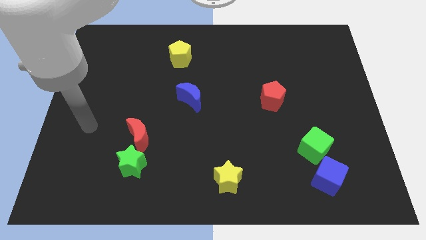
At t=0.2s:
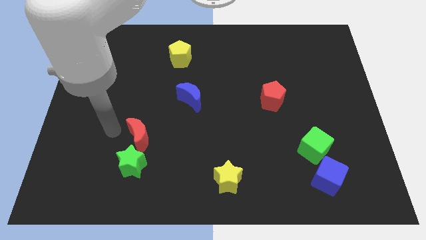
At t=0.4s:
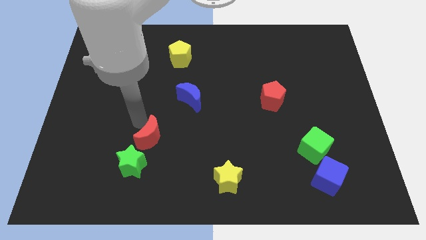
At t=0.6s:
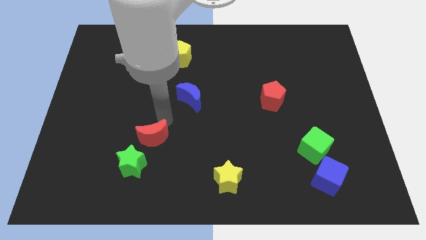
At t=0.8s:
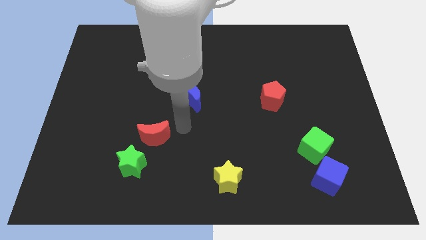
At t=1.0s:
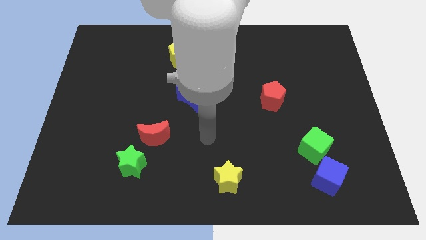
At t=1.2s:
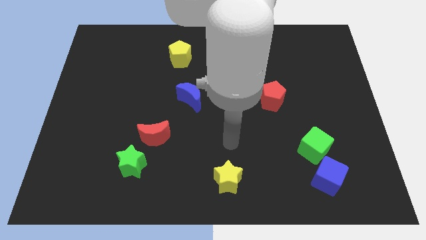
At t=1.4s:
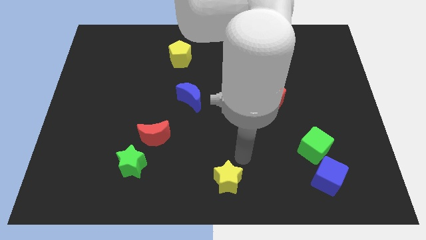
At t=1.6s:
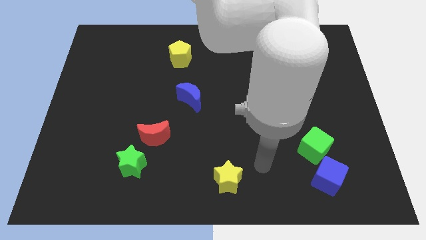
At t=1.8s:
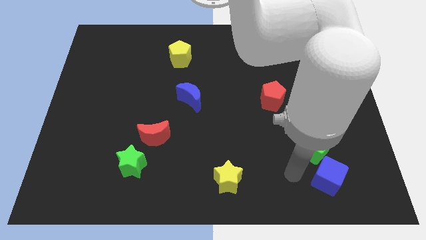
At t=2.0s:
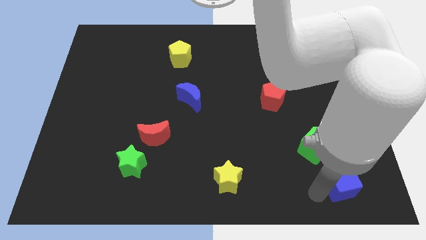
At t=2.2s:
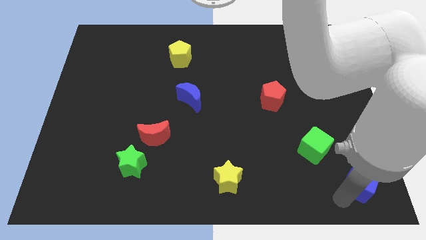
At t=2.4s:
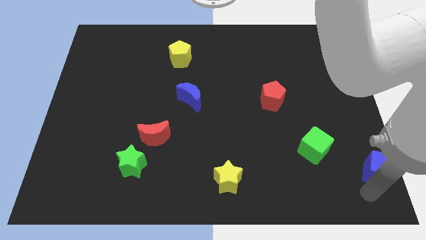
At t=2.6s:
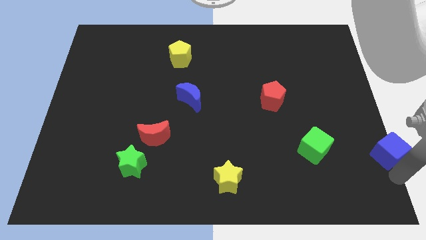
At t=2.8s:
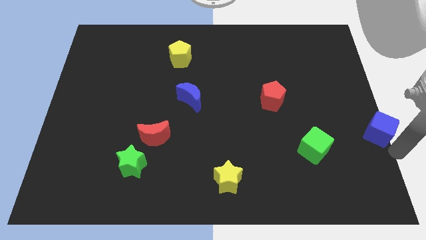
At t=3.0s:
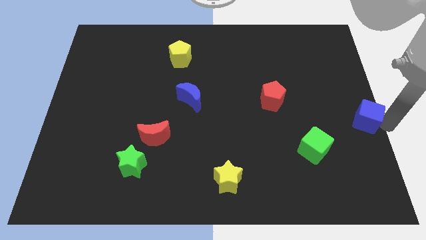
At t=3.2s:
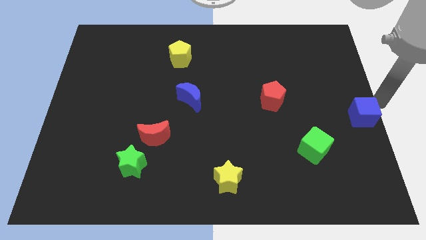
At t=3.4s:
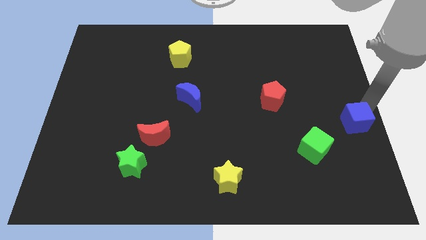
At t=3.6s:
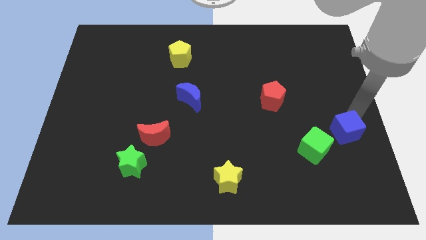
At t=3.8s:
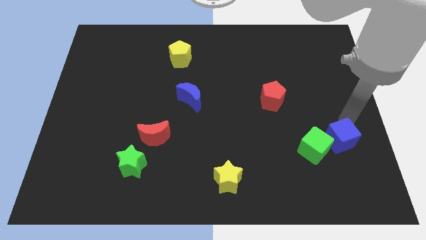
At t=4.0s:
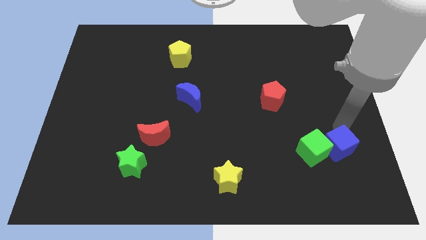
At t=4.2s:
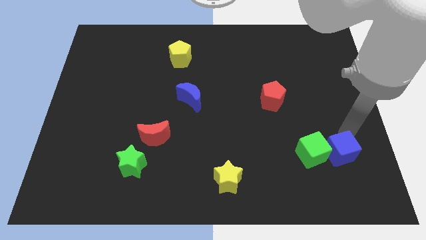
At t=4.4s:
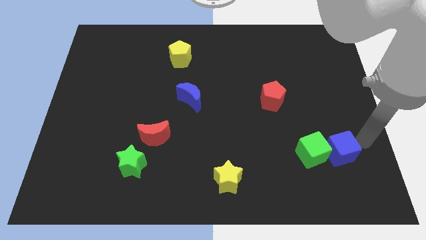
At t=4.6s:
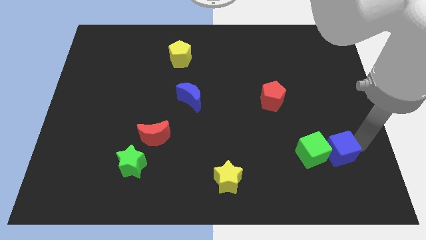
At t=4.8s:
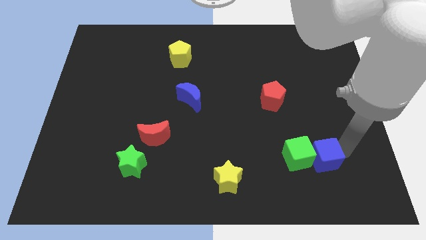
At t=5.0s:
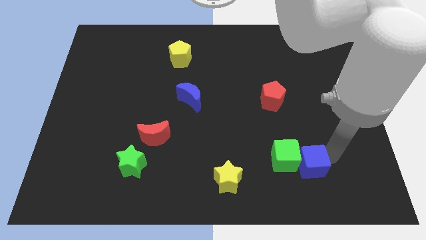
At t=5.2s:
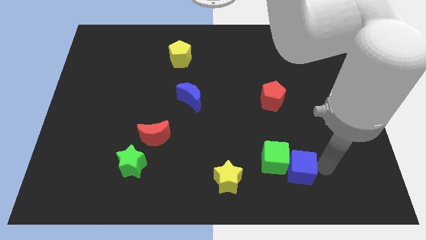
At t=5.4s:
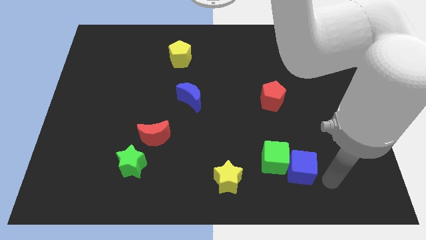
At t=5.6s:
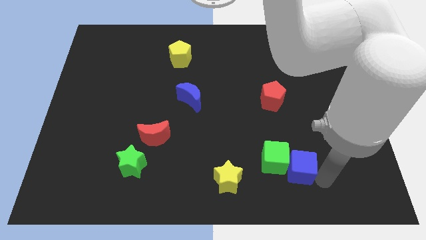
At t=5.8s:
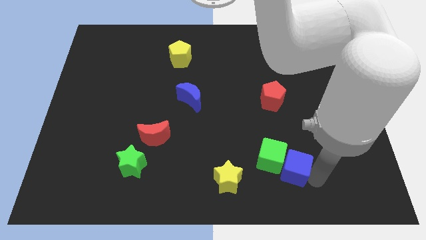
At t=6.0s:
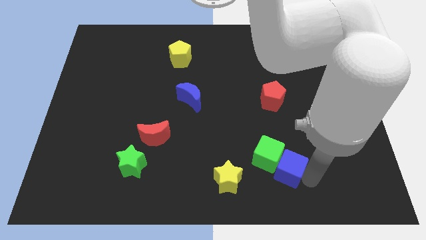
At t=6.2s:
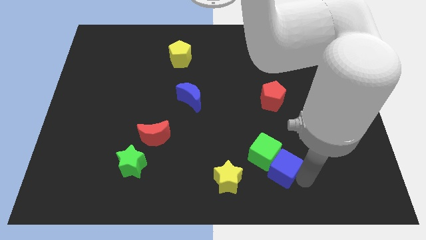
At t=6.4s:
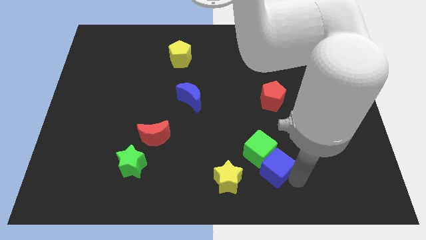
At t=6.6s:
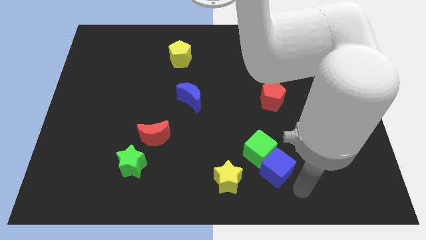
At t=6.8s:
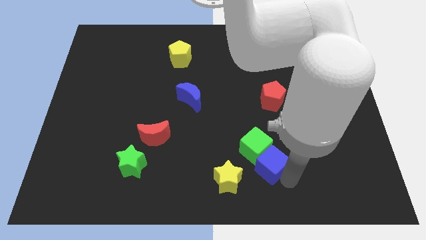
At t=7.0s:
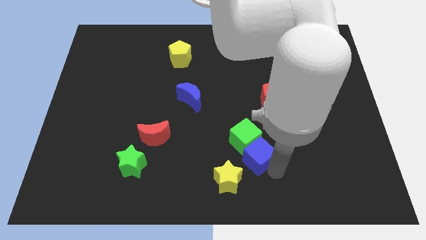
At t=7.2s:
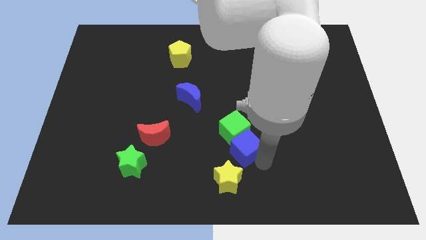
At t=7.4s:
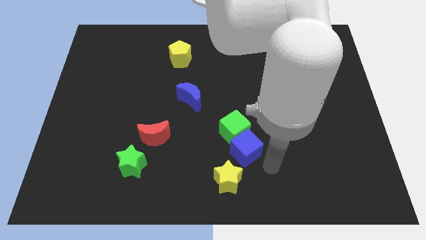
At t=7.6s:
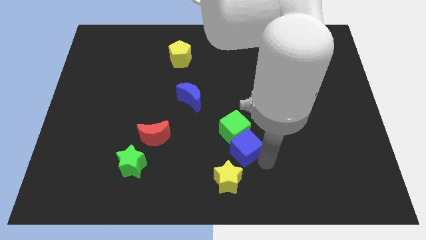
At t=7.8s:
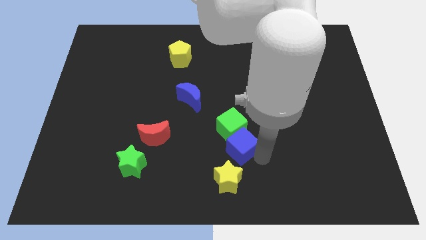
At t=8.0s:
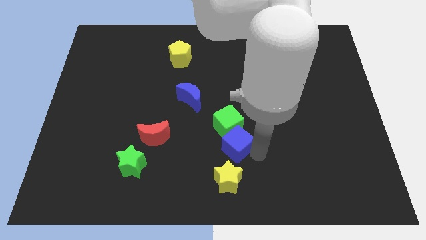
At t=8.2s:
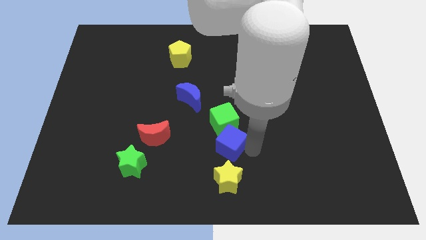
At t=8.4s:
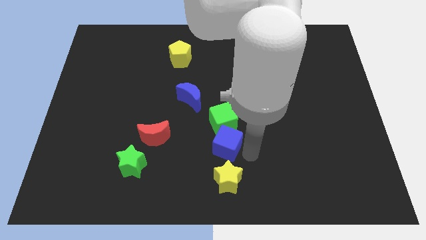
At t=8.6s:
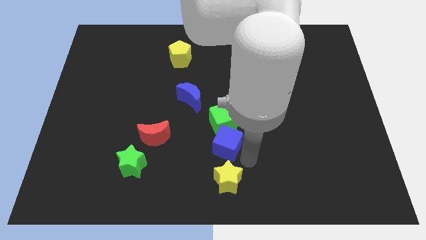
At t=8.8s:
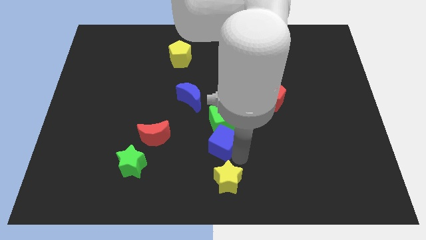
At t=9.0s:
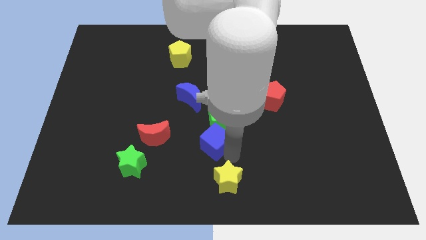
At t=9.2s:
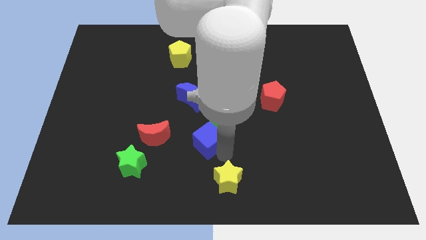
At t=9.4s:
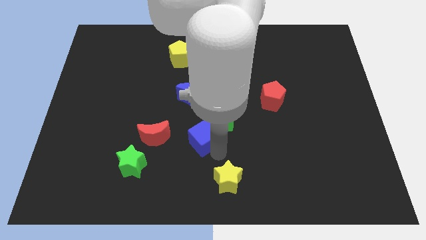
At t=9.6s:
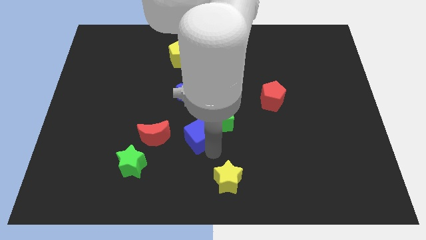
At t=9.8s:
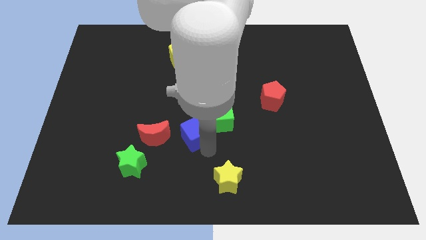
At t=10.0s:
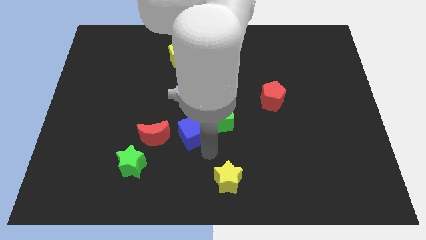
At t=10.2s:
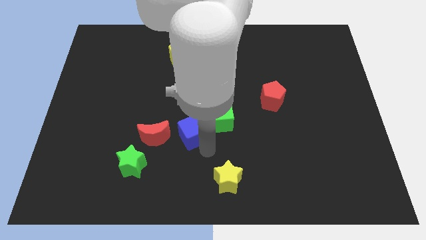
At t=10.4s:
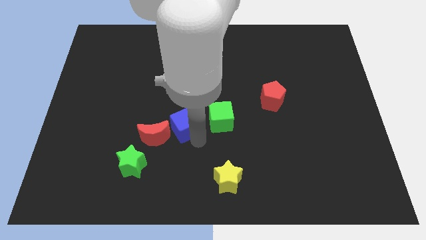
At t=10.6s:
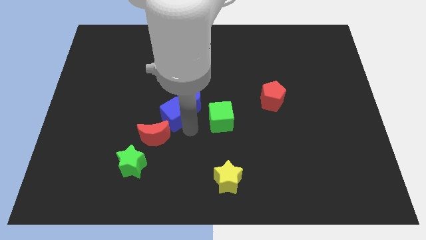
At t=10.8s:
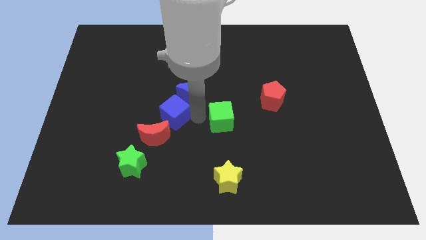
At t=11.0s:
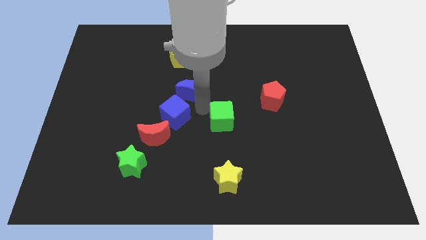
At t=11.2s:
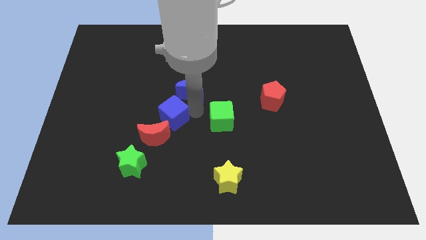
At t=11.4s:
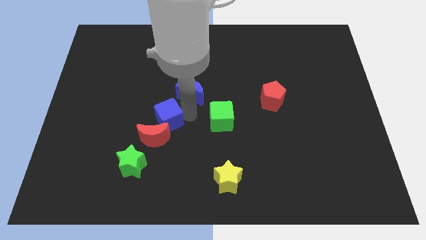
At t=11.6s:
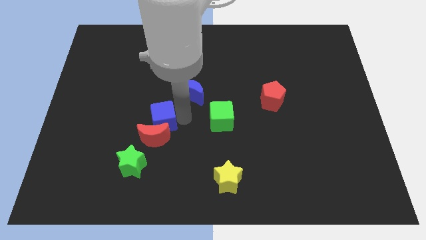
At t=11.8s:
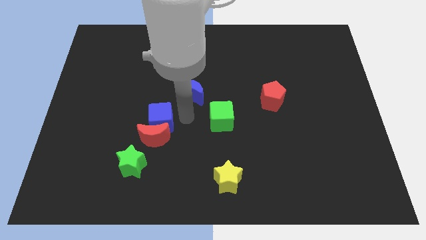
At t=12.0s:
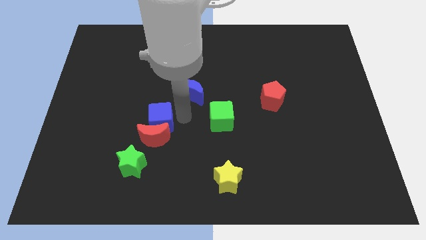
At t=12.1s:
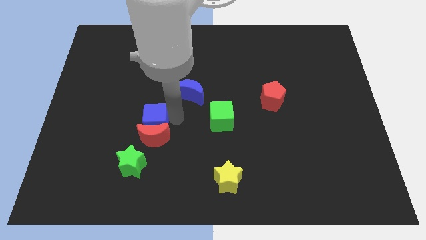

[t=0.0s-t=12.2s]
slide the blue cube to the top side of the green star
